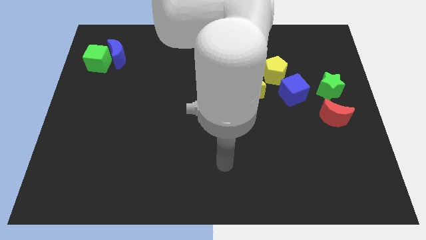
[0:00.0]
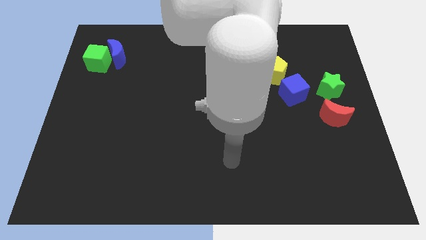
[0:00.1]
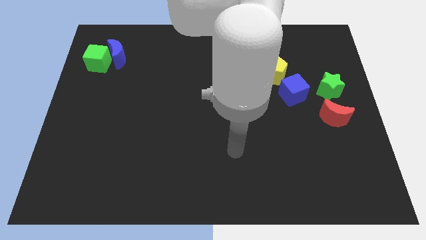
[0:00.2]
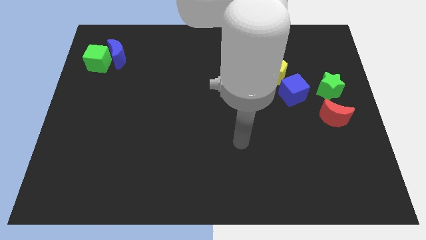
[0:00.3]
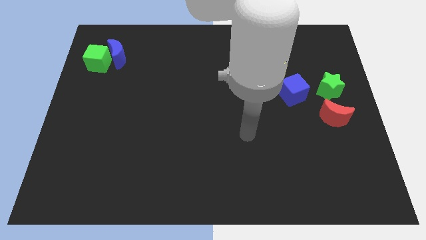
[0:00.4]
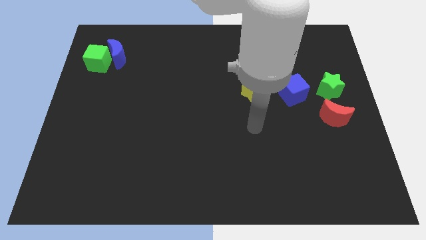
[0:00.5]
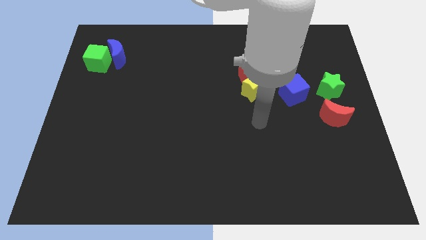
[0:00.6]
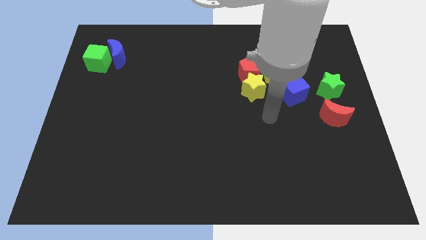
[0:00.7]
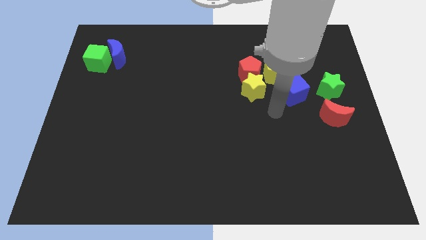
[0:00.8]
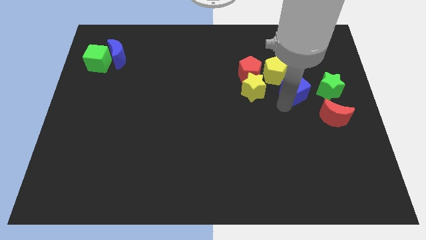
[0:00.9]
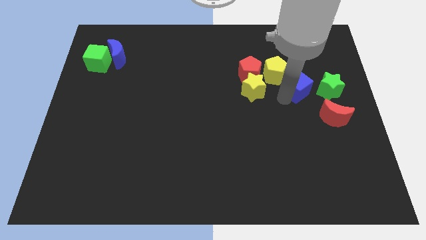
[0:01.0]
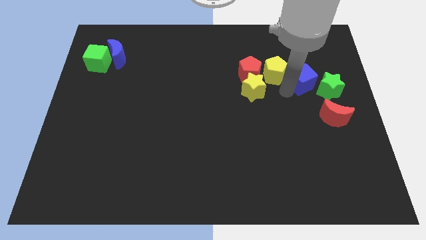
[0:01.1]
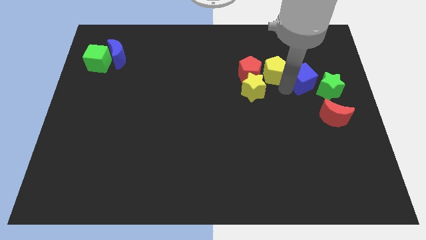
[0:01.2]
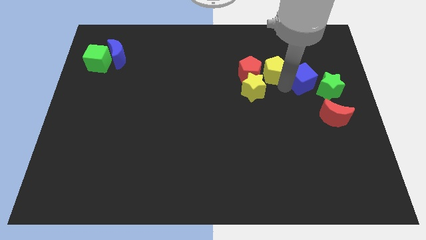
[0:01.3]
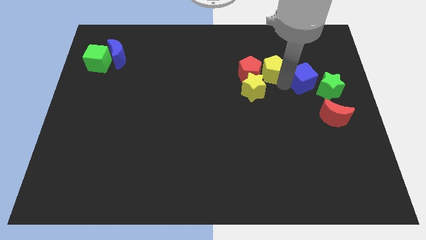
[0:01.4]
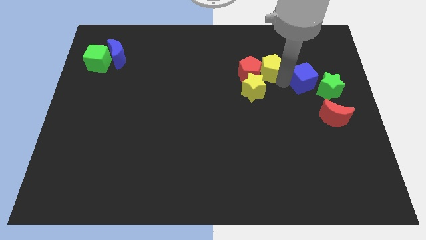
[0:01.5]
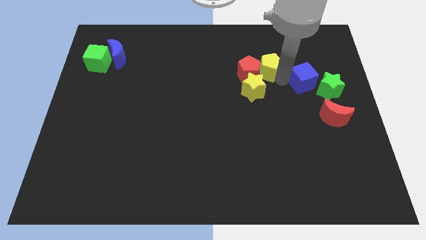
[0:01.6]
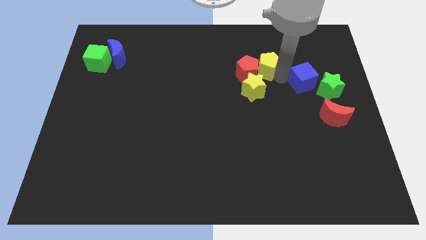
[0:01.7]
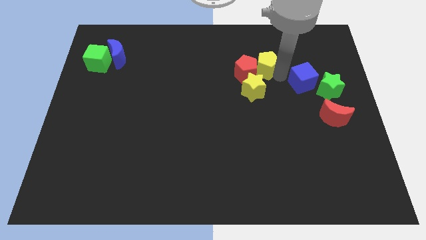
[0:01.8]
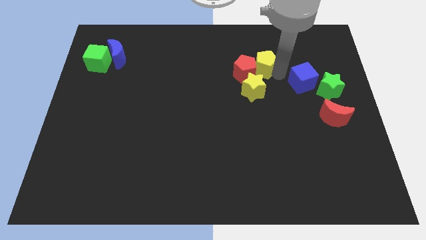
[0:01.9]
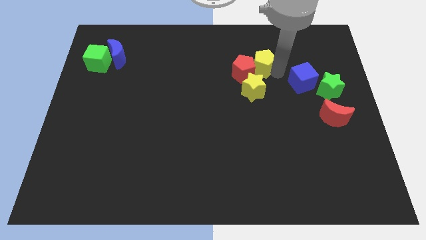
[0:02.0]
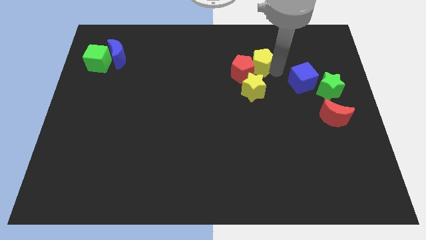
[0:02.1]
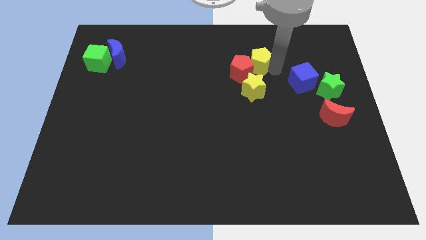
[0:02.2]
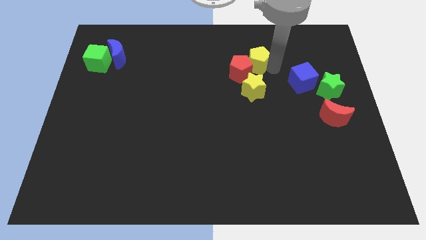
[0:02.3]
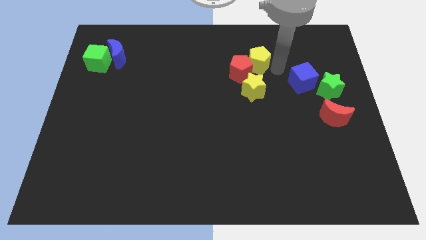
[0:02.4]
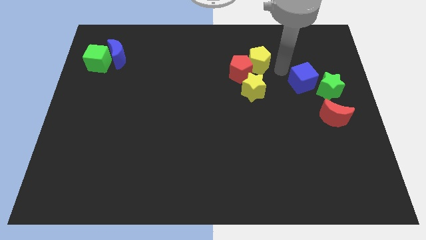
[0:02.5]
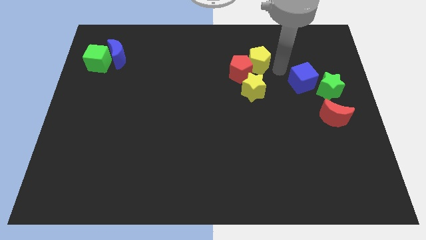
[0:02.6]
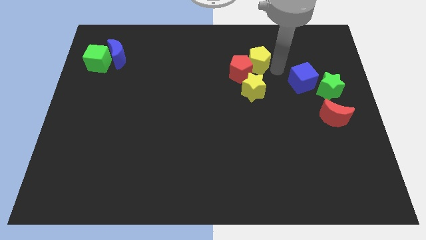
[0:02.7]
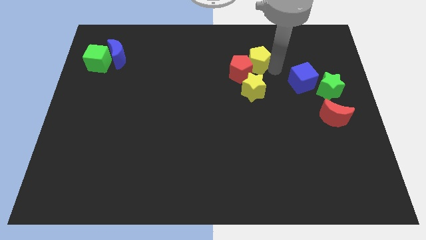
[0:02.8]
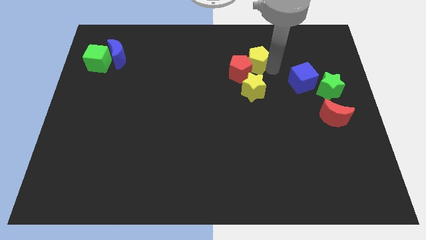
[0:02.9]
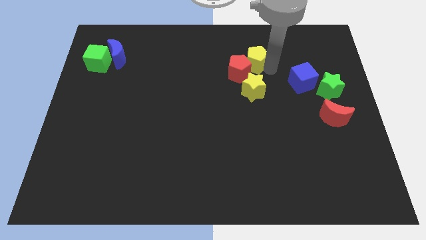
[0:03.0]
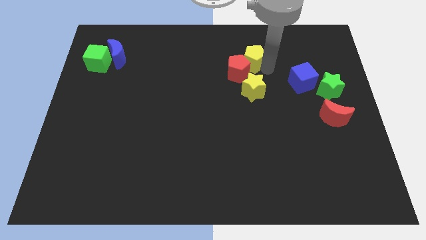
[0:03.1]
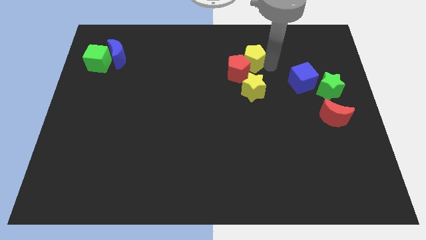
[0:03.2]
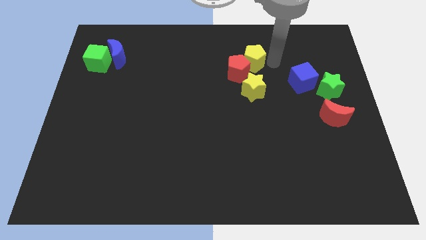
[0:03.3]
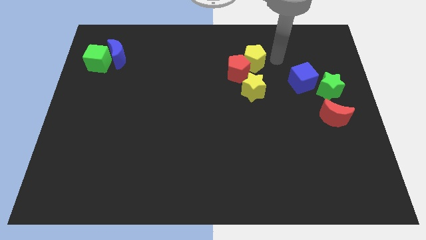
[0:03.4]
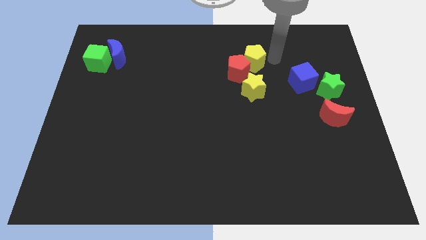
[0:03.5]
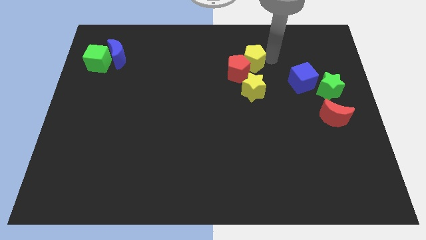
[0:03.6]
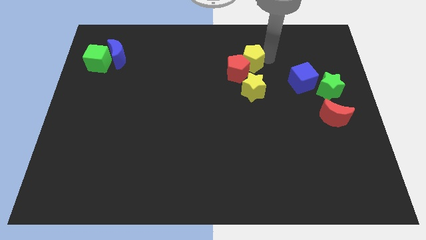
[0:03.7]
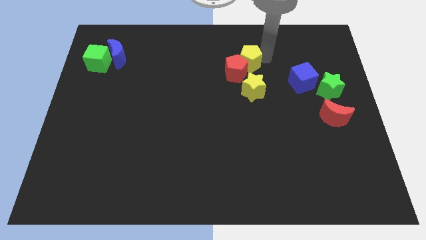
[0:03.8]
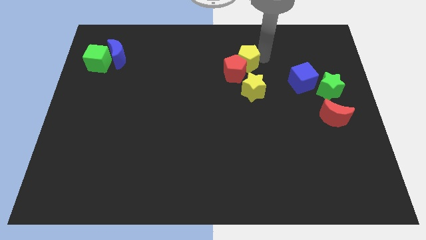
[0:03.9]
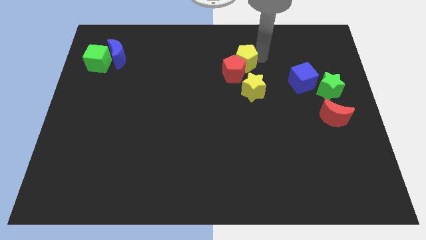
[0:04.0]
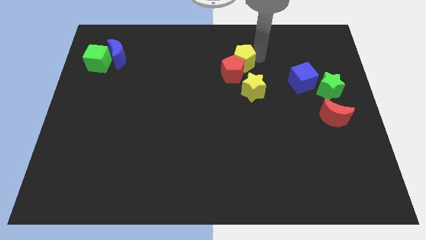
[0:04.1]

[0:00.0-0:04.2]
slightly move the yellow pentagon to the left

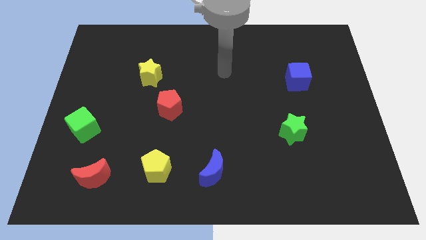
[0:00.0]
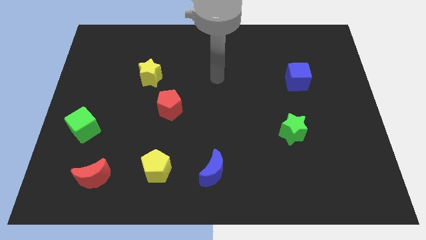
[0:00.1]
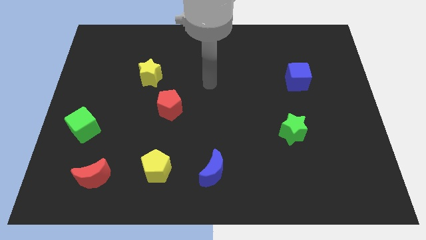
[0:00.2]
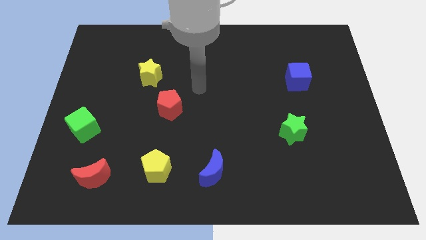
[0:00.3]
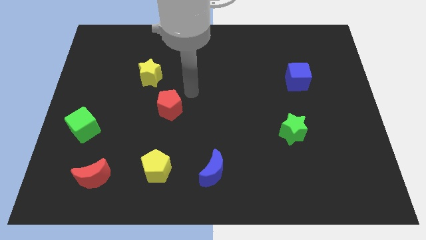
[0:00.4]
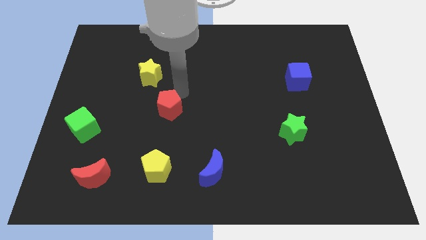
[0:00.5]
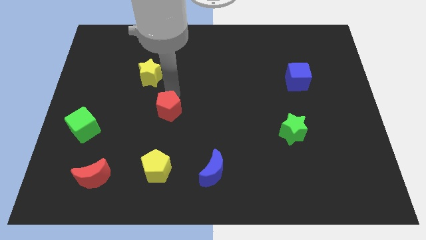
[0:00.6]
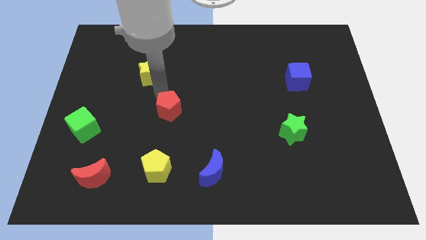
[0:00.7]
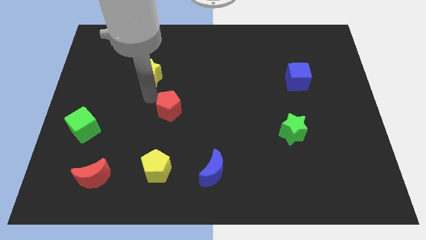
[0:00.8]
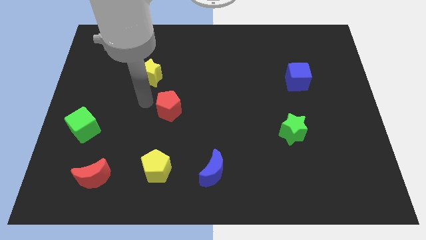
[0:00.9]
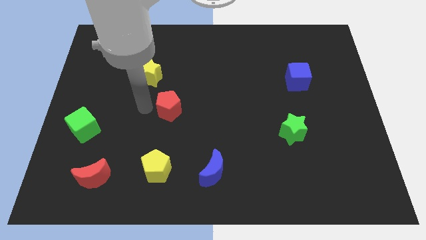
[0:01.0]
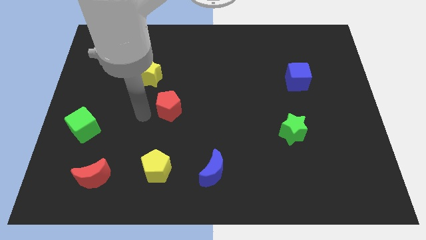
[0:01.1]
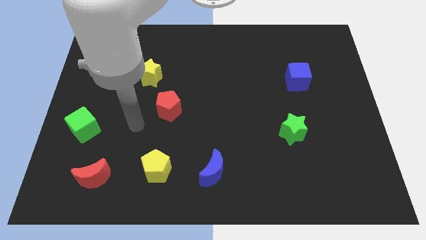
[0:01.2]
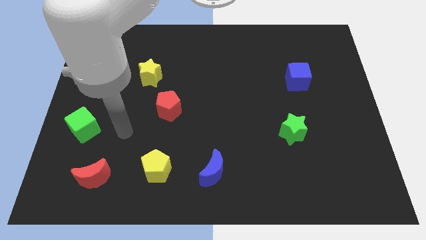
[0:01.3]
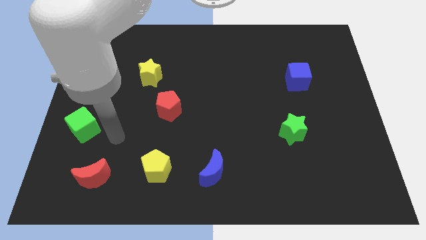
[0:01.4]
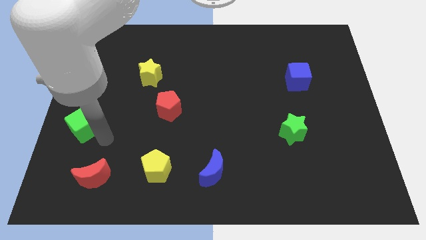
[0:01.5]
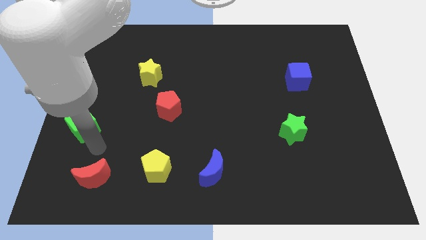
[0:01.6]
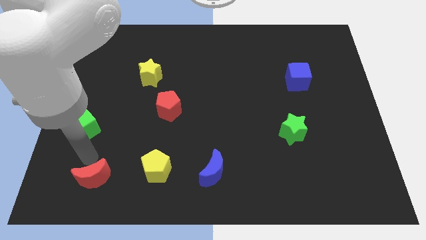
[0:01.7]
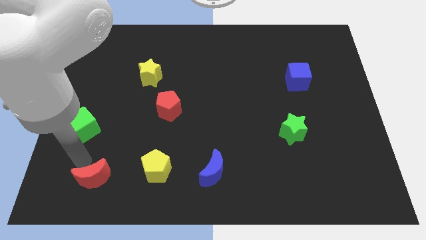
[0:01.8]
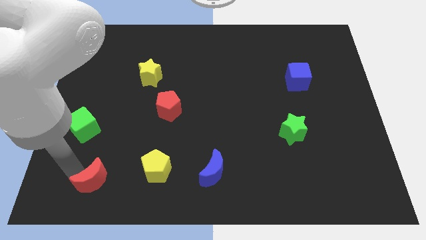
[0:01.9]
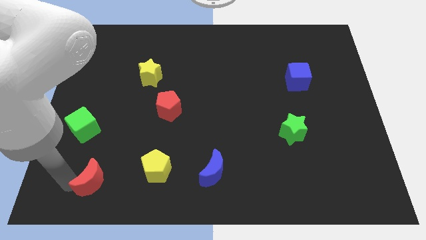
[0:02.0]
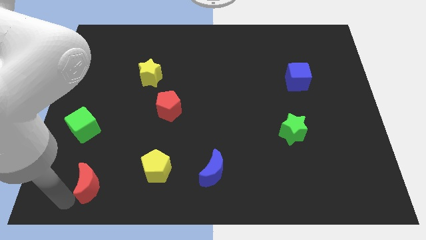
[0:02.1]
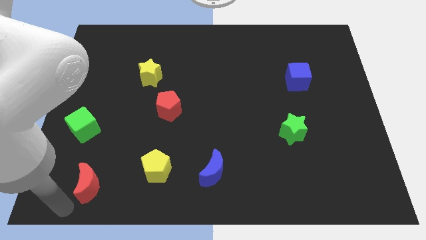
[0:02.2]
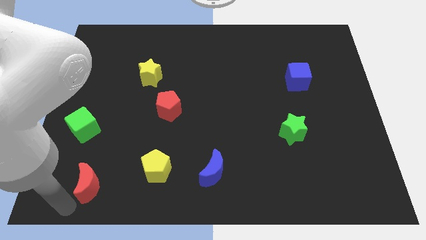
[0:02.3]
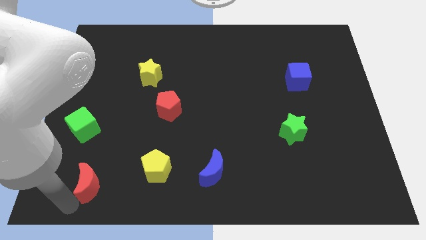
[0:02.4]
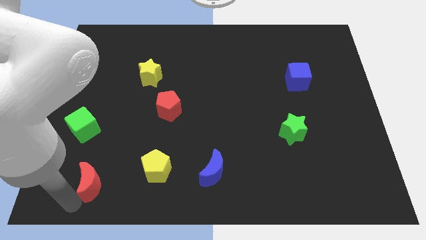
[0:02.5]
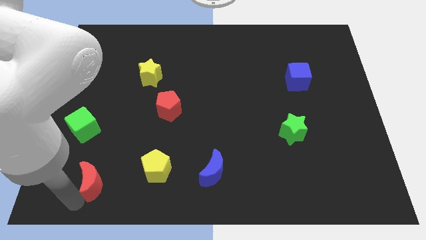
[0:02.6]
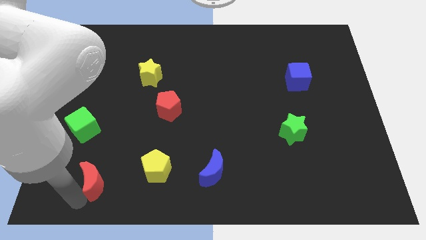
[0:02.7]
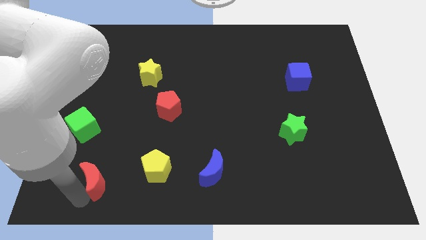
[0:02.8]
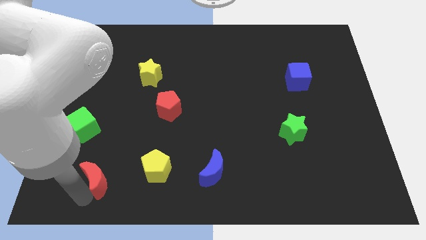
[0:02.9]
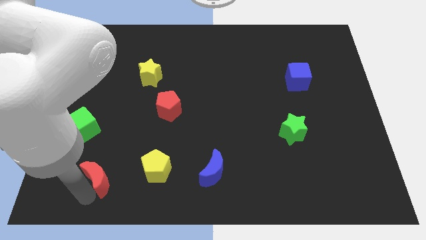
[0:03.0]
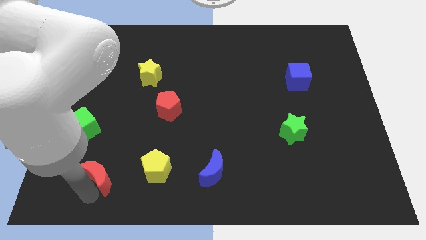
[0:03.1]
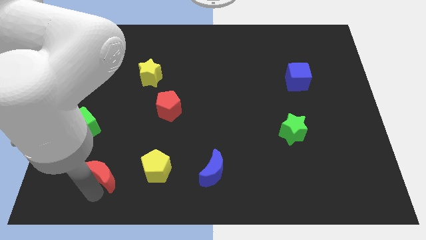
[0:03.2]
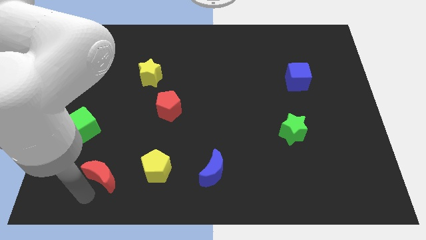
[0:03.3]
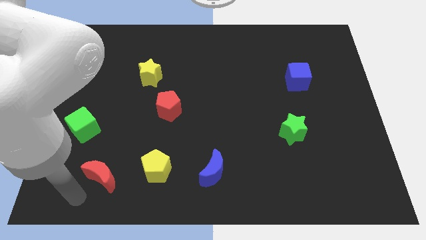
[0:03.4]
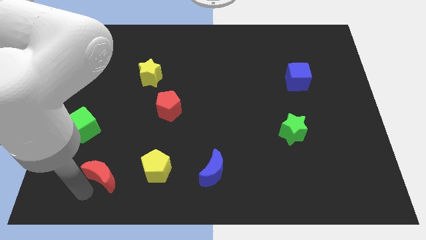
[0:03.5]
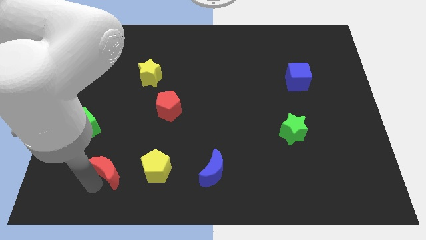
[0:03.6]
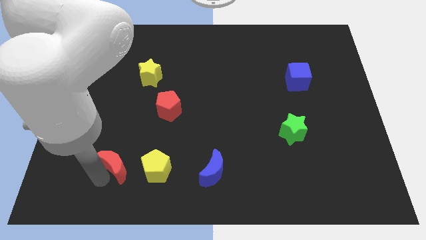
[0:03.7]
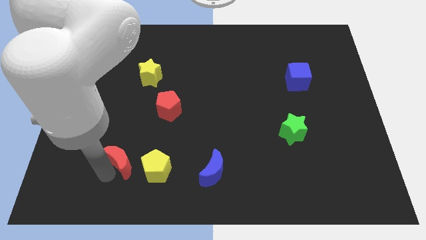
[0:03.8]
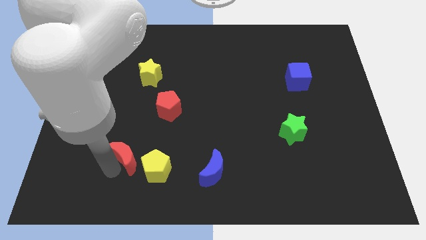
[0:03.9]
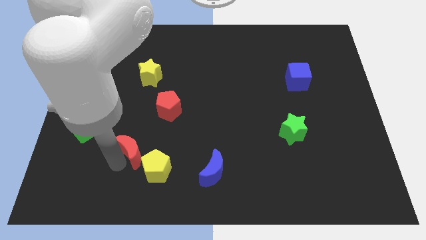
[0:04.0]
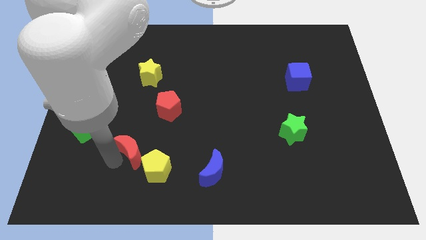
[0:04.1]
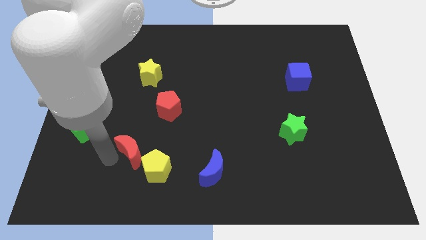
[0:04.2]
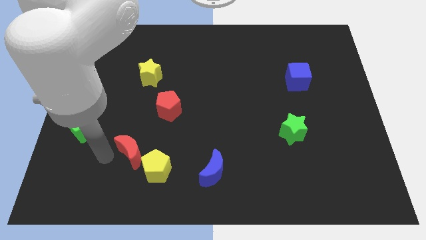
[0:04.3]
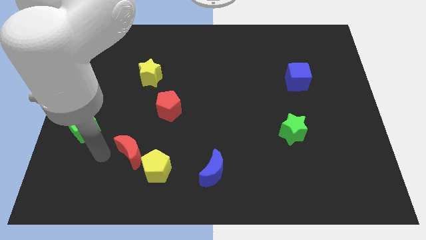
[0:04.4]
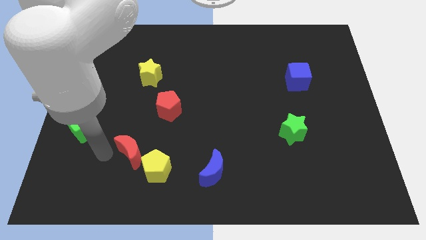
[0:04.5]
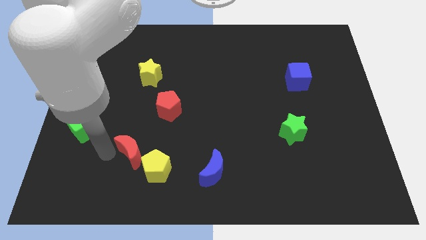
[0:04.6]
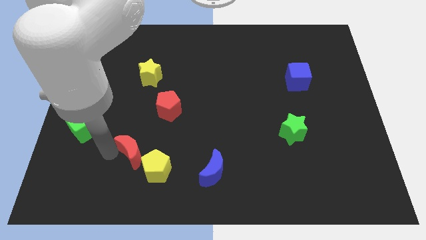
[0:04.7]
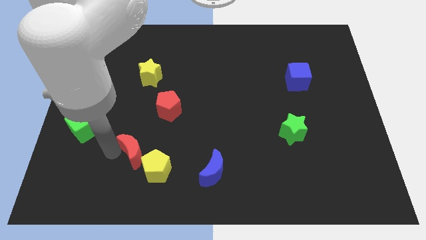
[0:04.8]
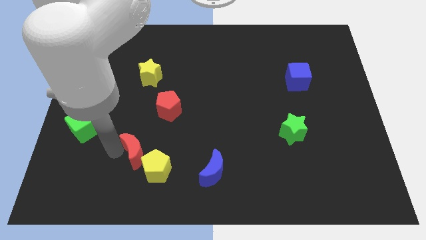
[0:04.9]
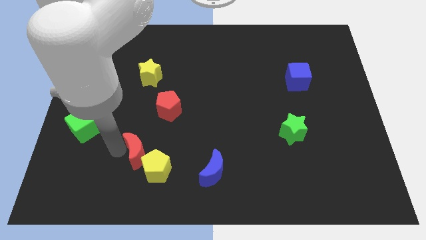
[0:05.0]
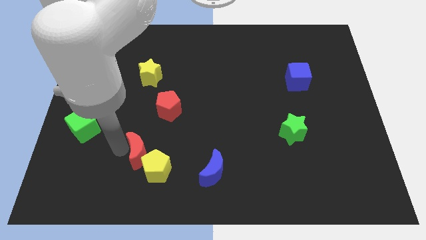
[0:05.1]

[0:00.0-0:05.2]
slightly slide the red moon to the right
